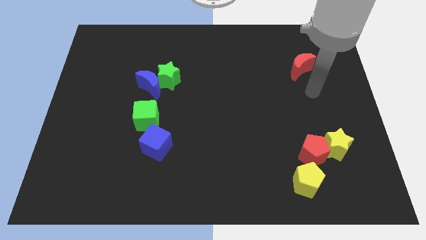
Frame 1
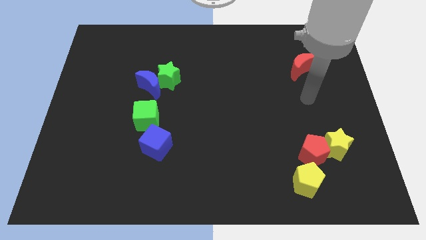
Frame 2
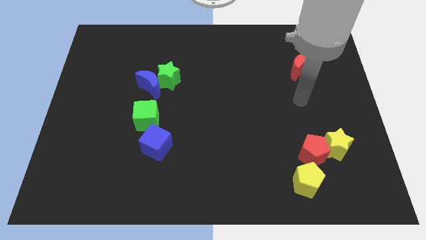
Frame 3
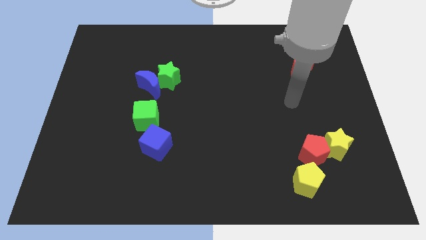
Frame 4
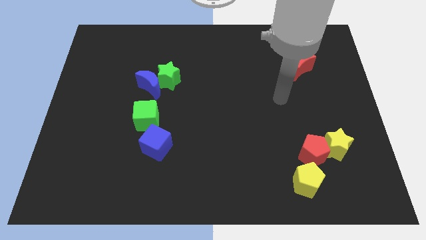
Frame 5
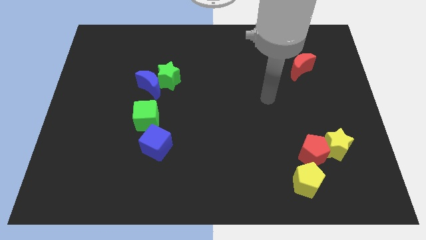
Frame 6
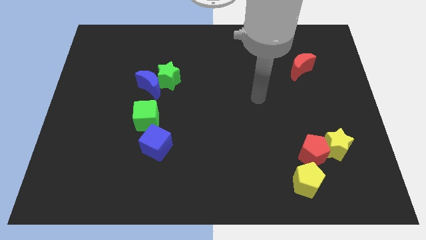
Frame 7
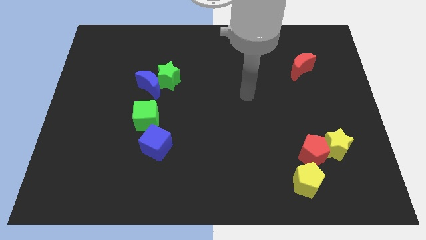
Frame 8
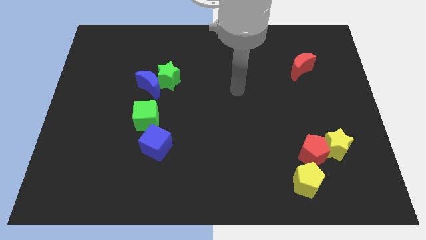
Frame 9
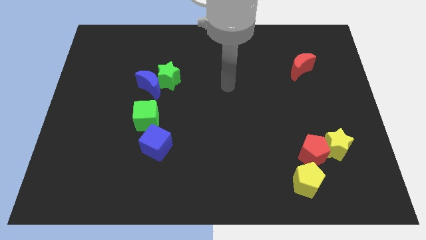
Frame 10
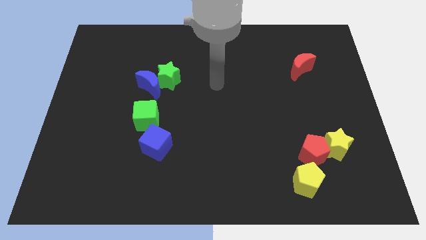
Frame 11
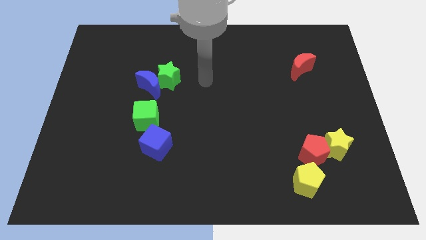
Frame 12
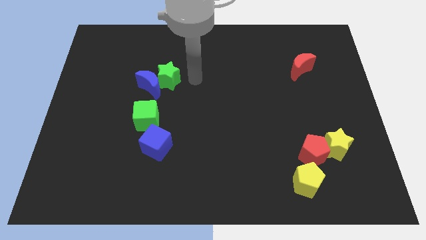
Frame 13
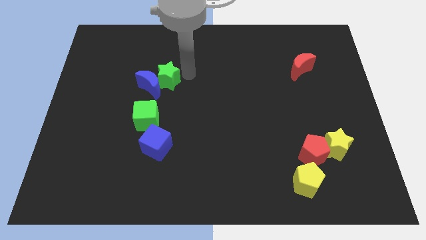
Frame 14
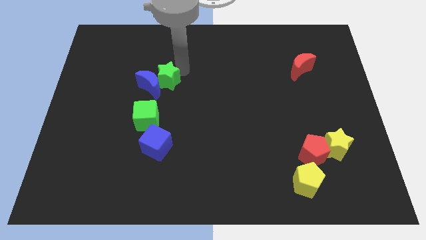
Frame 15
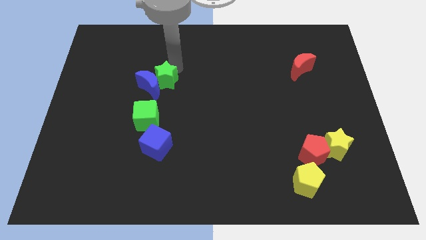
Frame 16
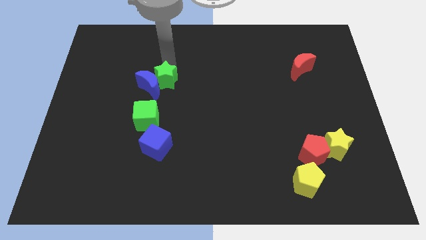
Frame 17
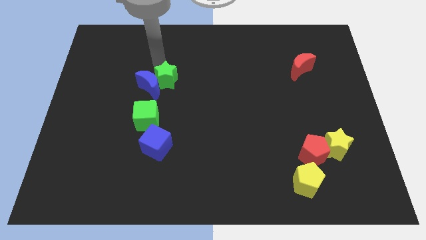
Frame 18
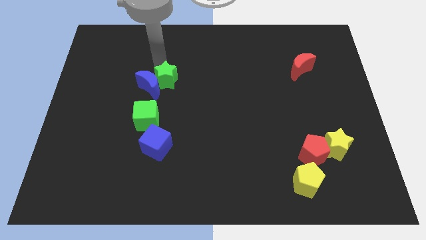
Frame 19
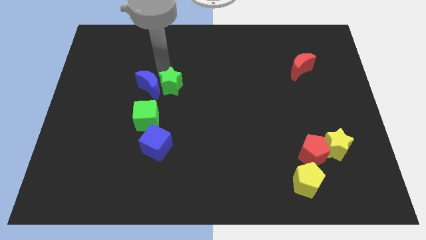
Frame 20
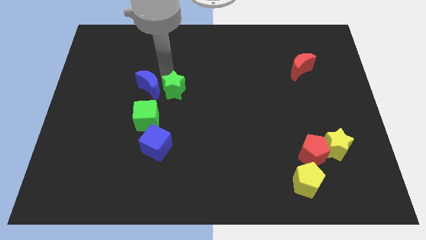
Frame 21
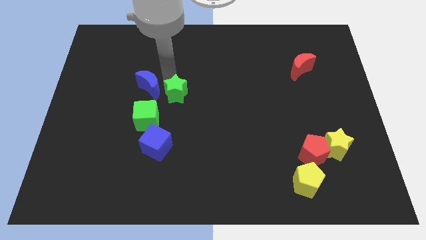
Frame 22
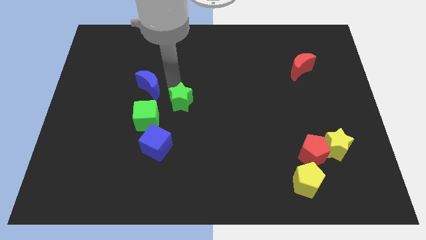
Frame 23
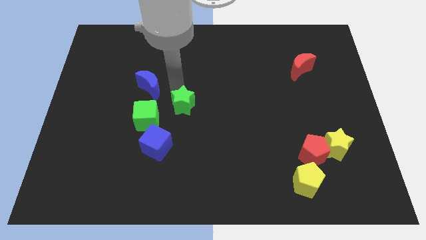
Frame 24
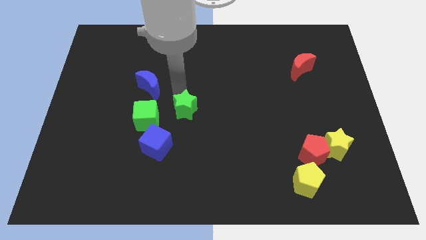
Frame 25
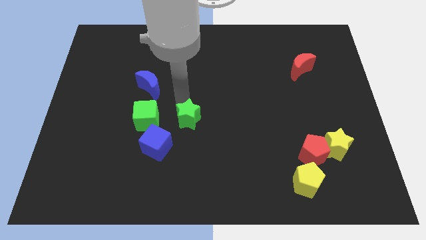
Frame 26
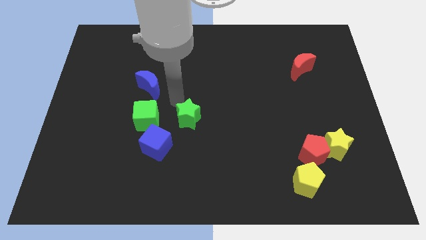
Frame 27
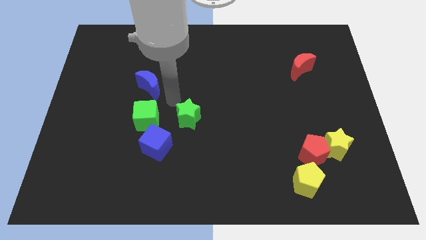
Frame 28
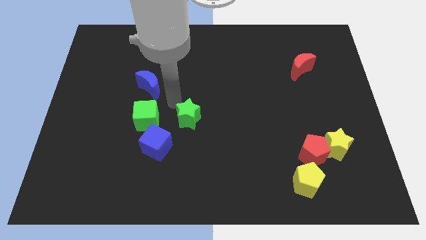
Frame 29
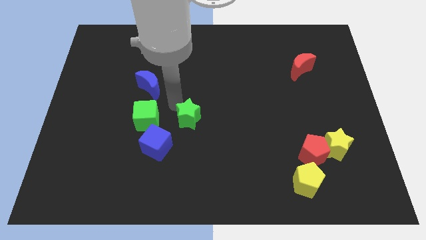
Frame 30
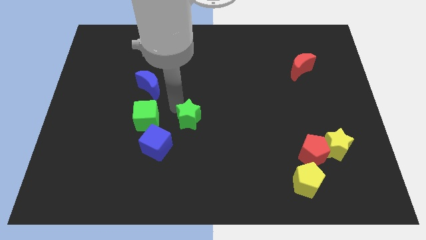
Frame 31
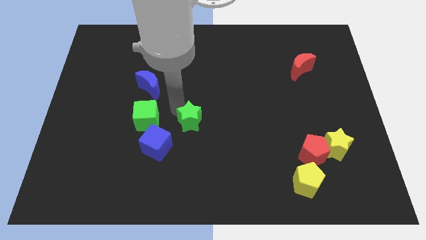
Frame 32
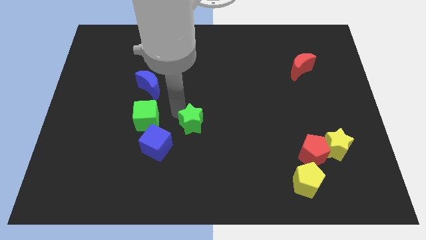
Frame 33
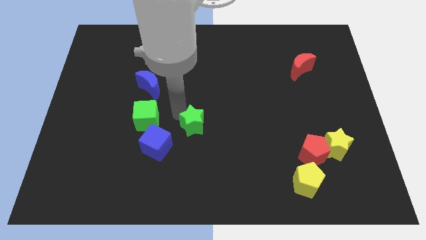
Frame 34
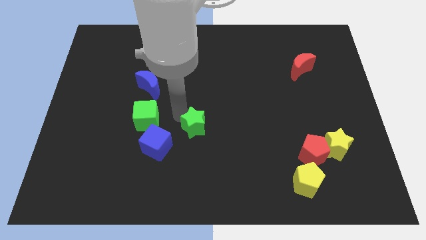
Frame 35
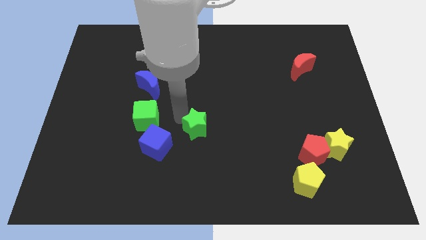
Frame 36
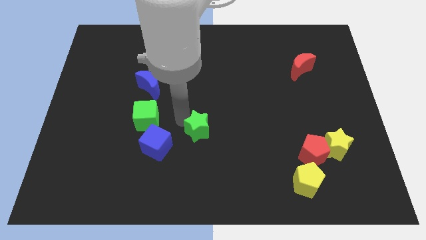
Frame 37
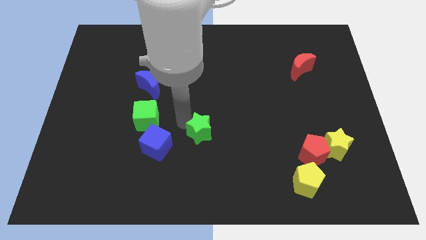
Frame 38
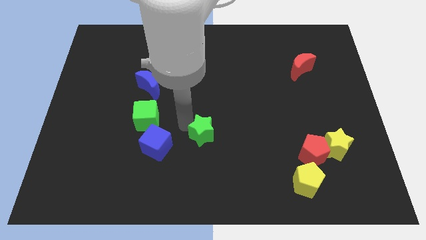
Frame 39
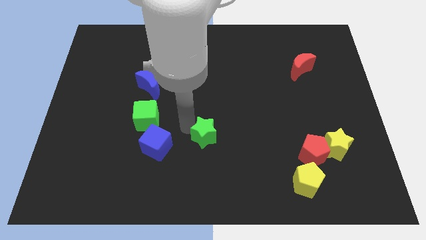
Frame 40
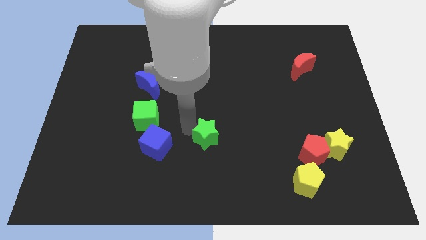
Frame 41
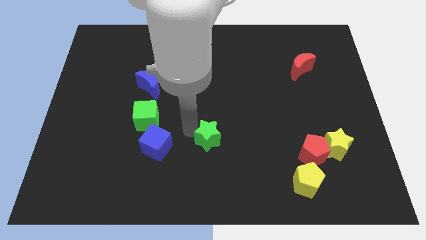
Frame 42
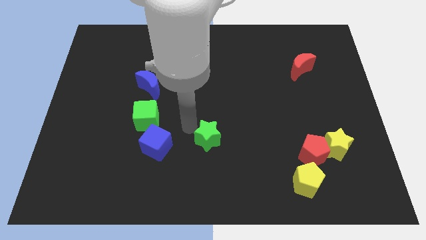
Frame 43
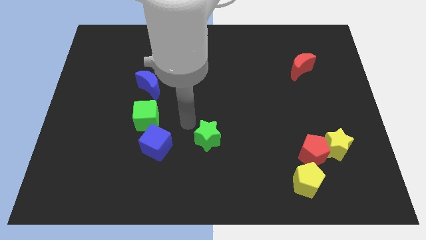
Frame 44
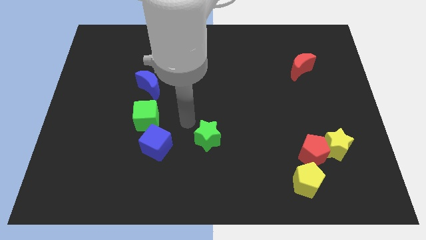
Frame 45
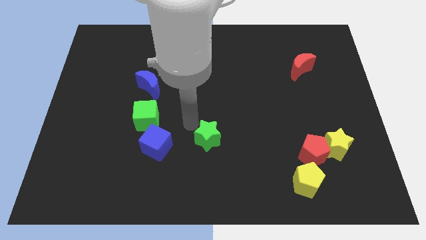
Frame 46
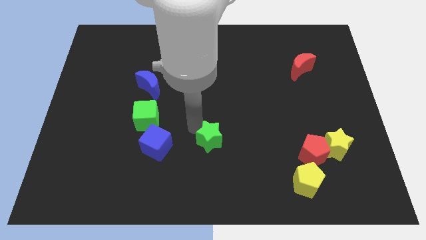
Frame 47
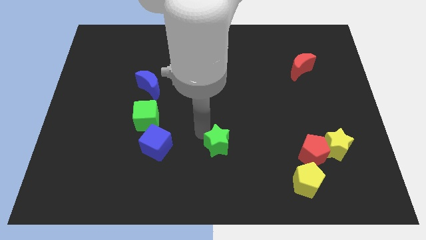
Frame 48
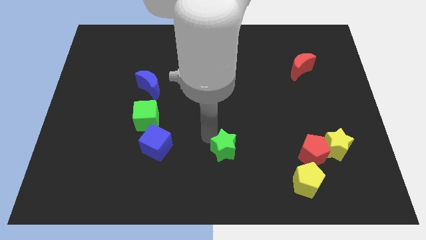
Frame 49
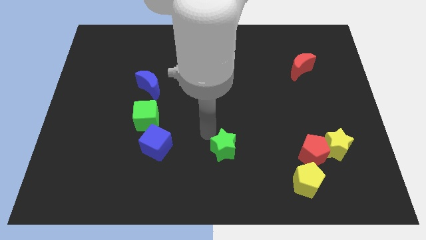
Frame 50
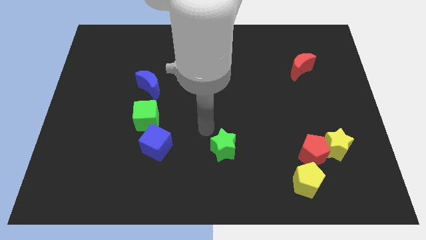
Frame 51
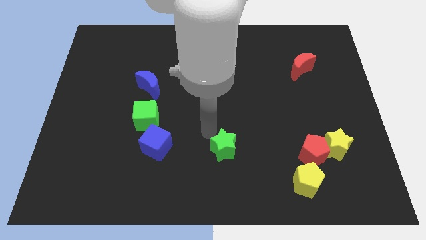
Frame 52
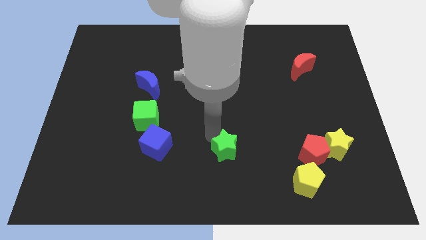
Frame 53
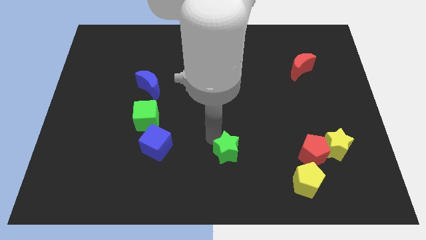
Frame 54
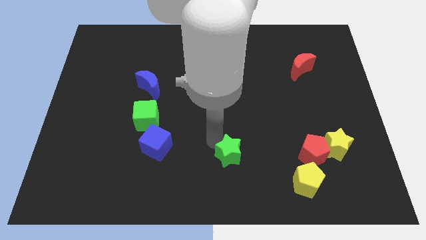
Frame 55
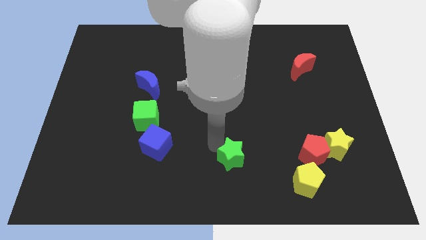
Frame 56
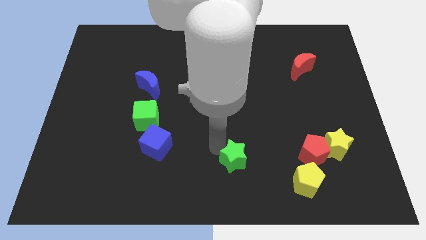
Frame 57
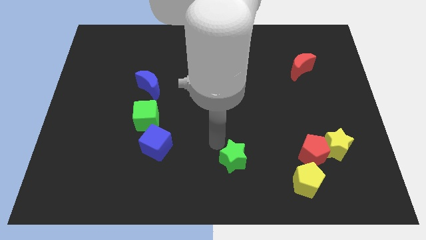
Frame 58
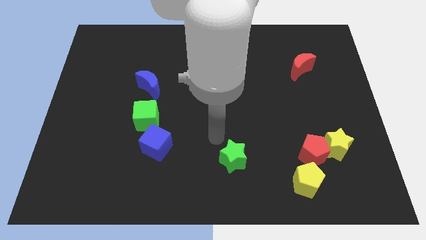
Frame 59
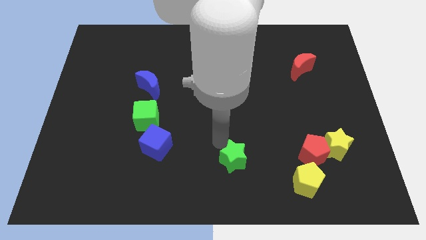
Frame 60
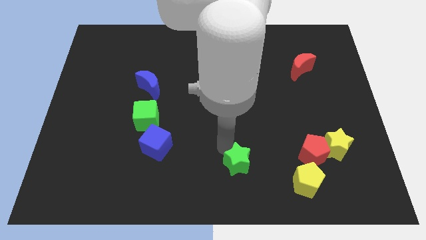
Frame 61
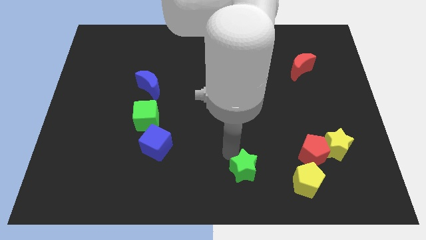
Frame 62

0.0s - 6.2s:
push the green star just left of the yellow pentagon
